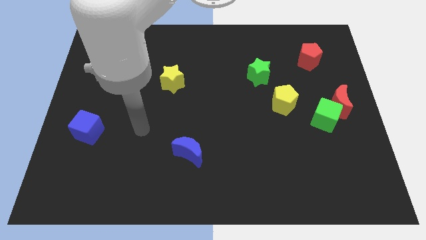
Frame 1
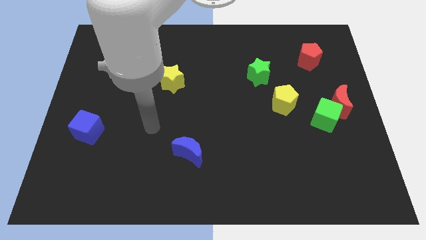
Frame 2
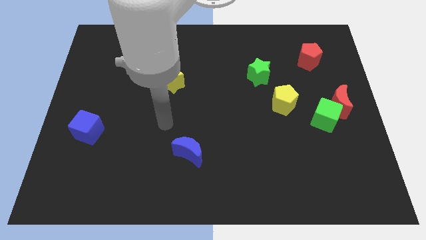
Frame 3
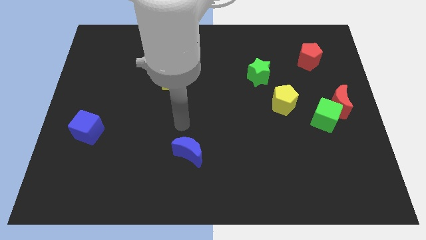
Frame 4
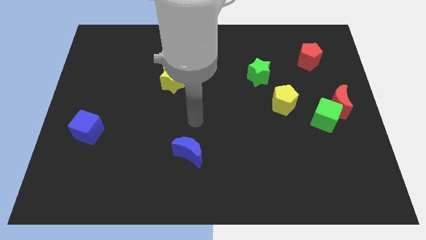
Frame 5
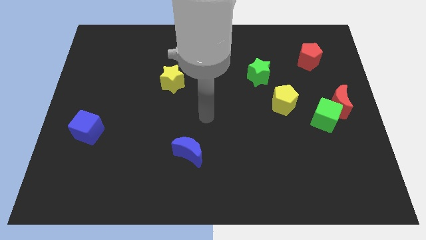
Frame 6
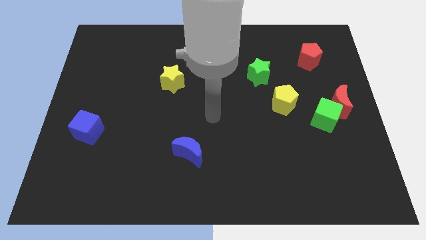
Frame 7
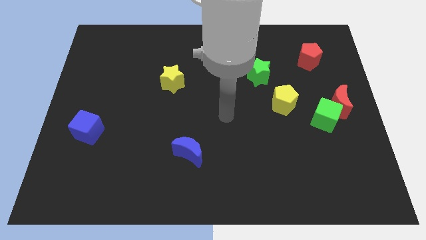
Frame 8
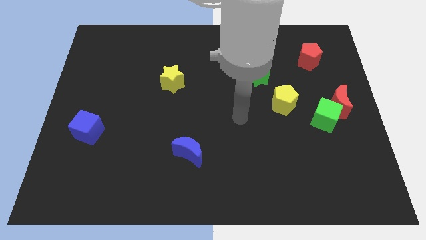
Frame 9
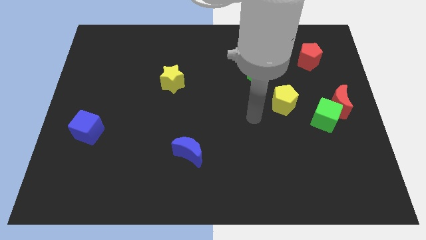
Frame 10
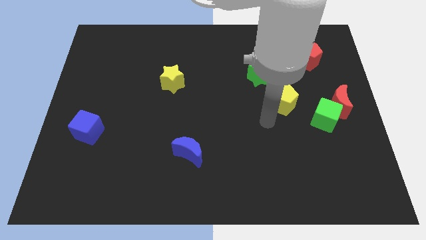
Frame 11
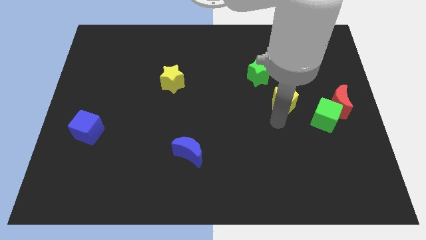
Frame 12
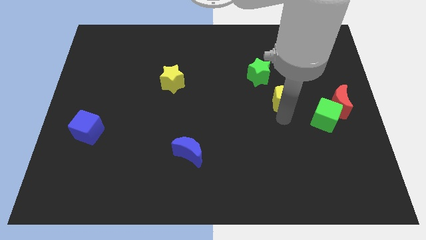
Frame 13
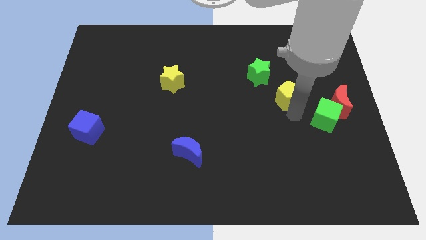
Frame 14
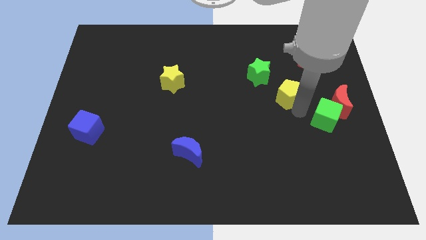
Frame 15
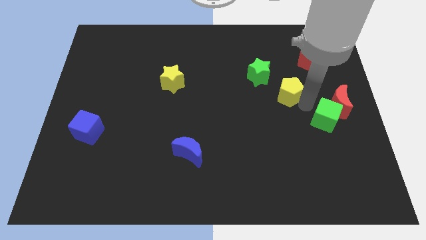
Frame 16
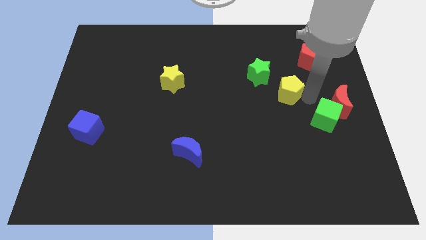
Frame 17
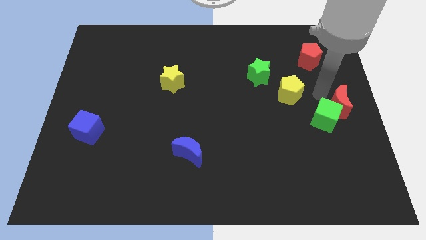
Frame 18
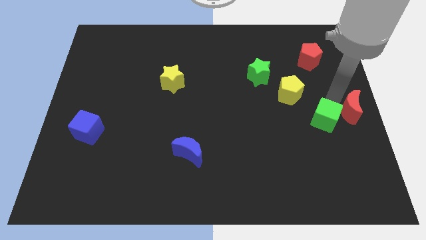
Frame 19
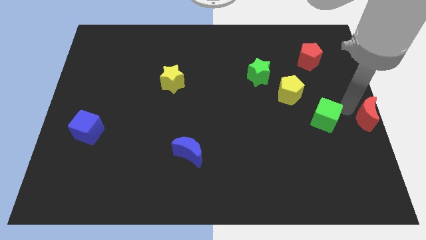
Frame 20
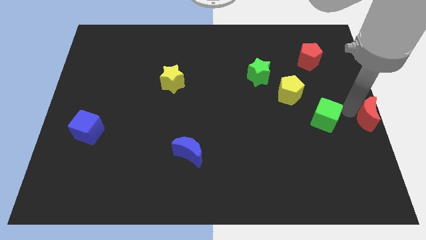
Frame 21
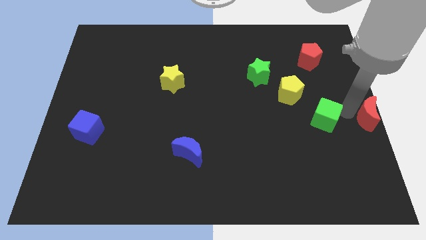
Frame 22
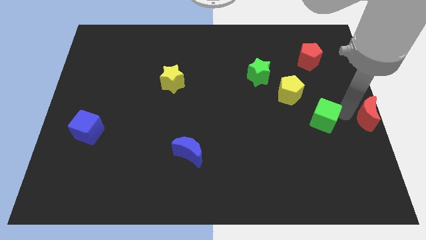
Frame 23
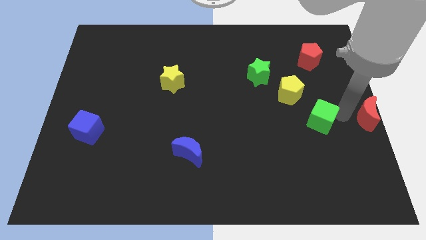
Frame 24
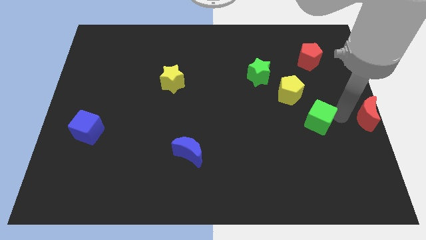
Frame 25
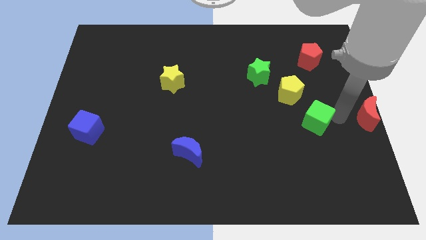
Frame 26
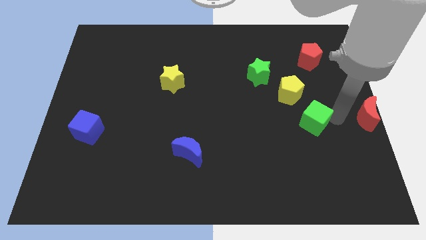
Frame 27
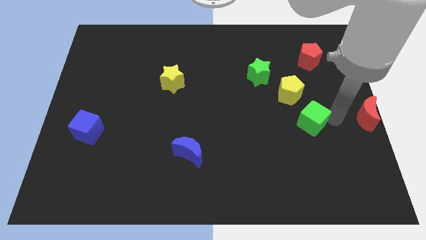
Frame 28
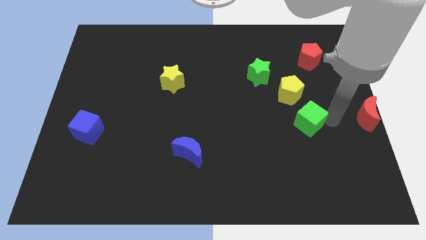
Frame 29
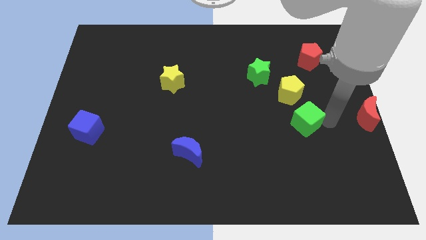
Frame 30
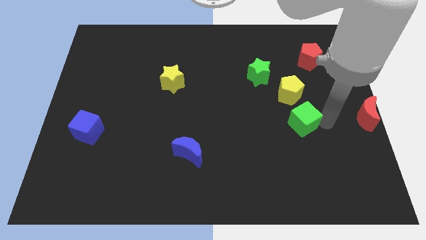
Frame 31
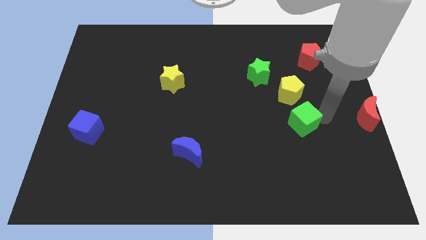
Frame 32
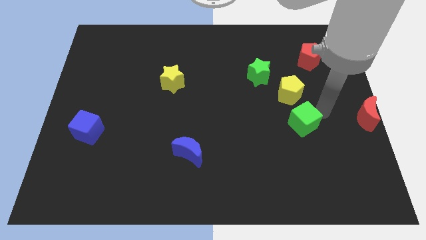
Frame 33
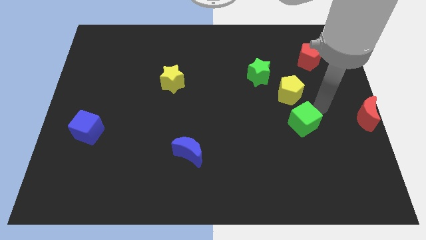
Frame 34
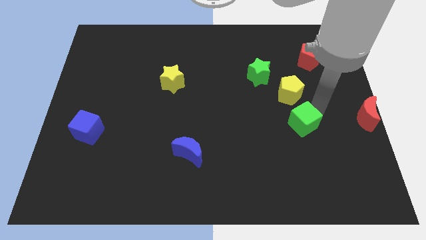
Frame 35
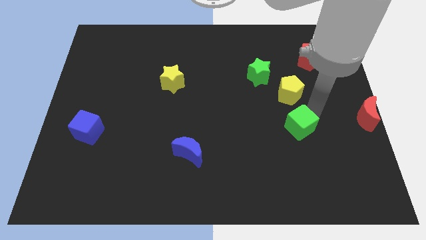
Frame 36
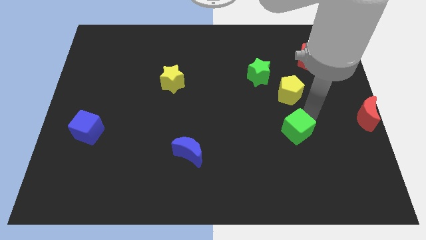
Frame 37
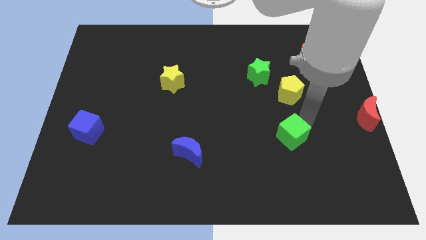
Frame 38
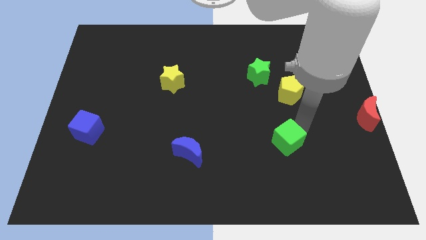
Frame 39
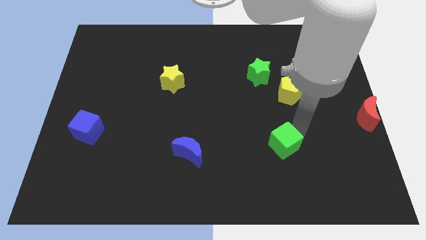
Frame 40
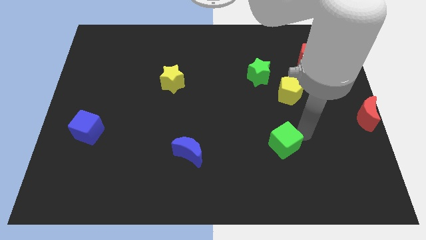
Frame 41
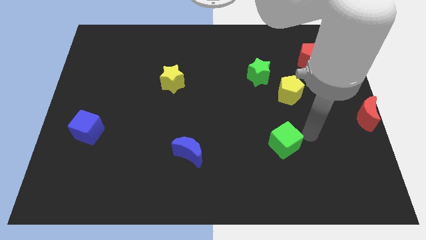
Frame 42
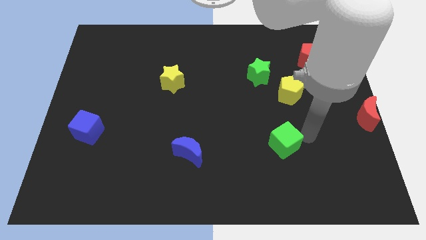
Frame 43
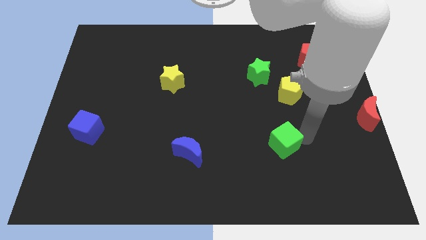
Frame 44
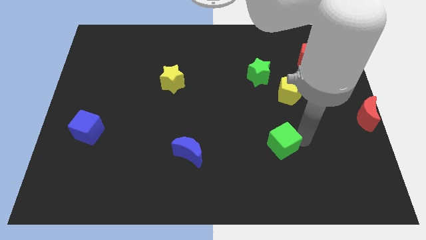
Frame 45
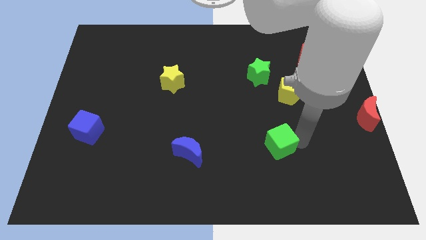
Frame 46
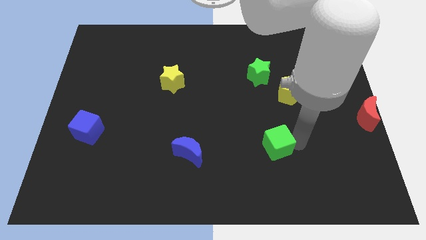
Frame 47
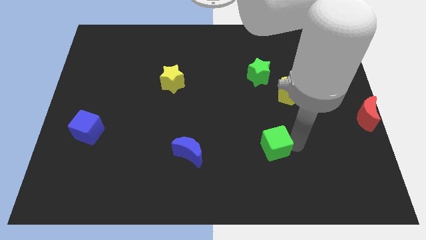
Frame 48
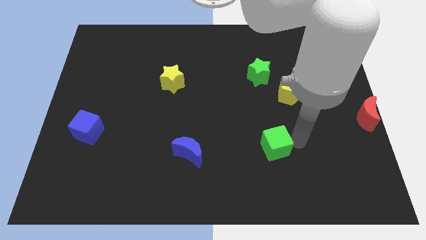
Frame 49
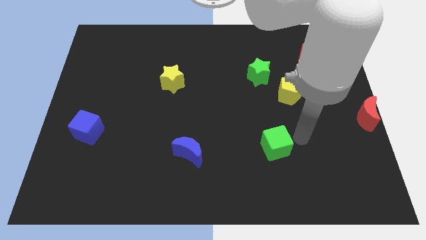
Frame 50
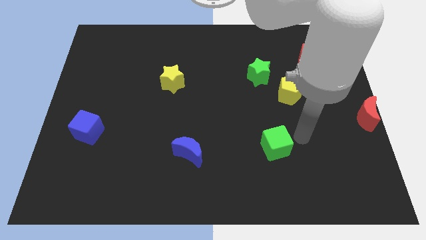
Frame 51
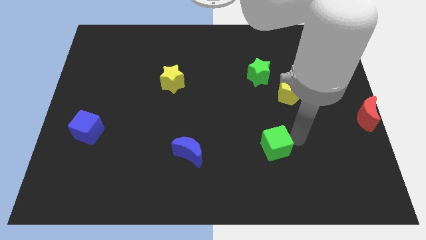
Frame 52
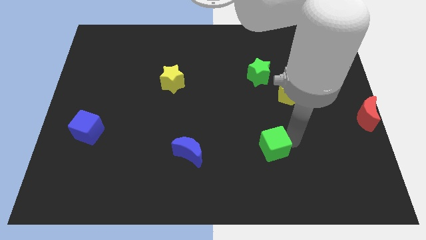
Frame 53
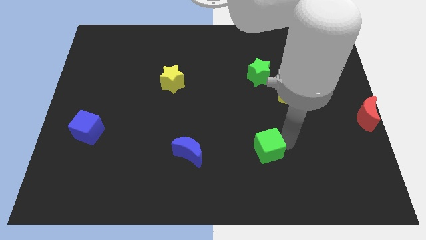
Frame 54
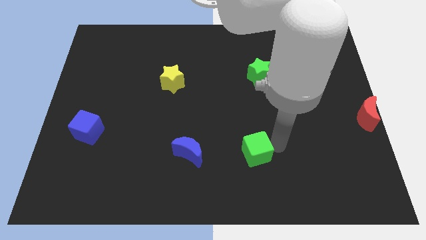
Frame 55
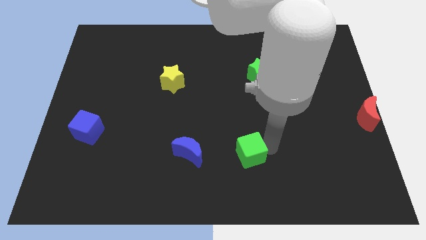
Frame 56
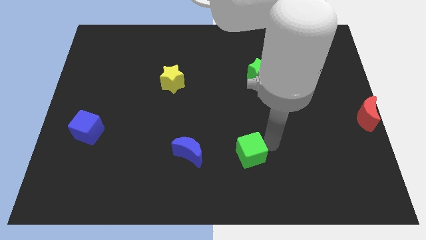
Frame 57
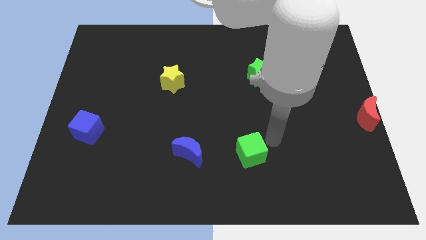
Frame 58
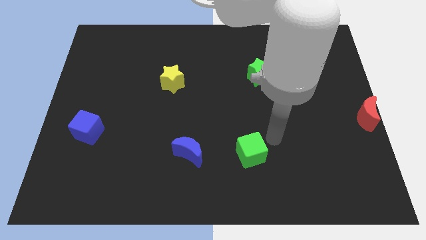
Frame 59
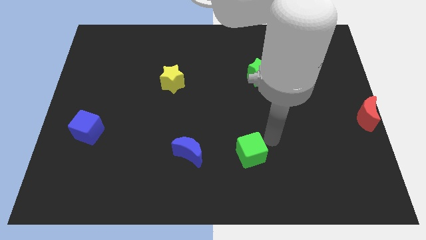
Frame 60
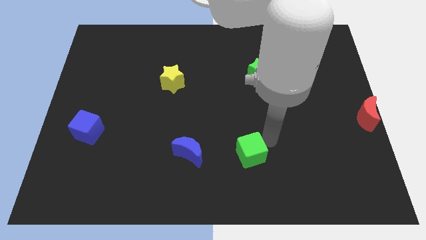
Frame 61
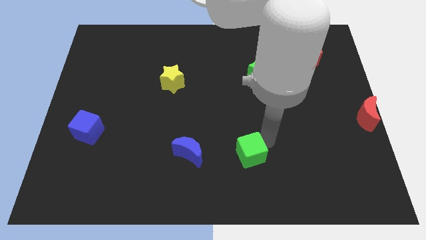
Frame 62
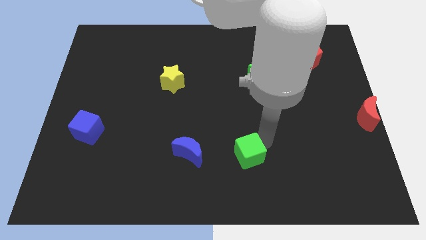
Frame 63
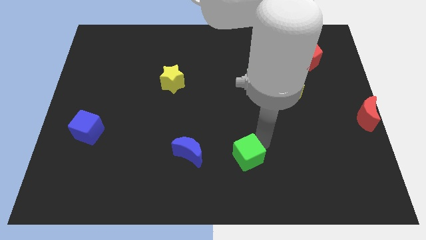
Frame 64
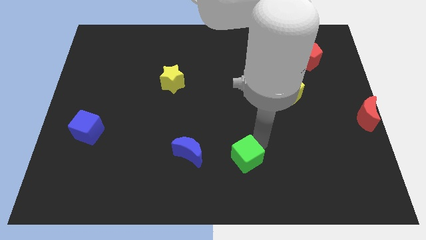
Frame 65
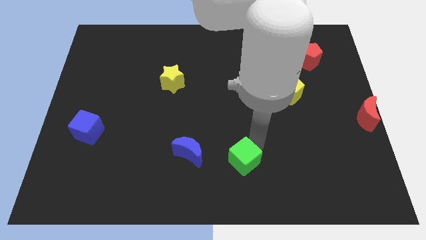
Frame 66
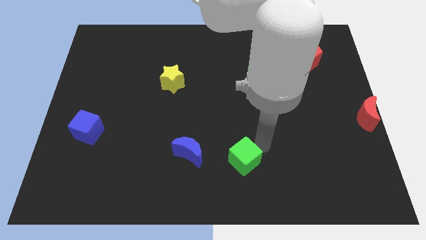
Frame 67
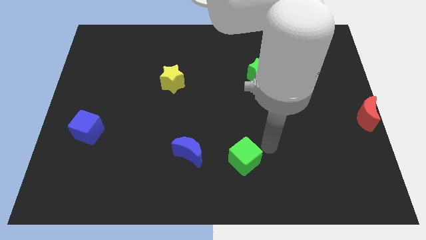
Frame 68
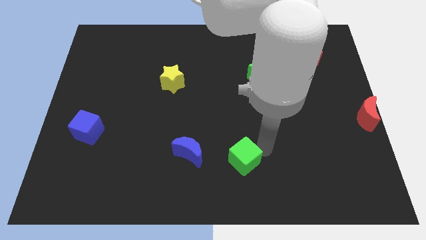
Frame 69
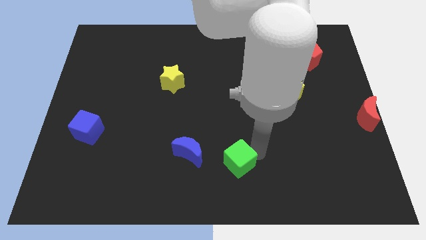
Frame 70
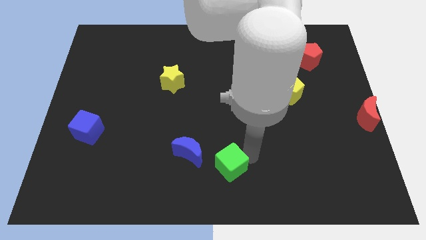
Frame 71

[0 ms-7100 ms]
put the green cube diagonally down and to the right of the blue moon
